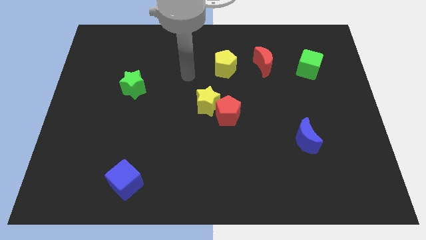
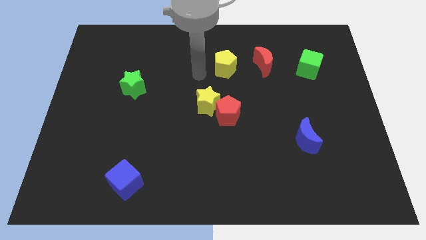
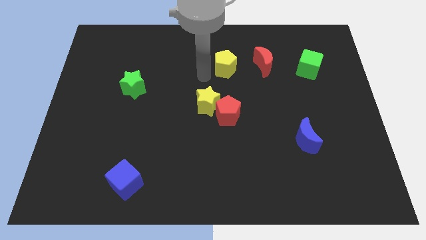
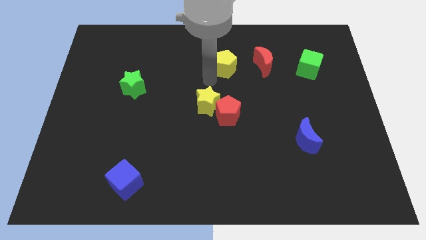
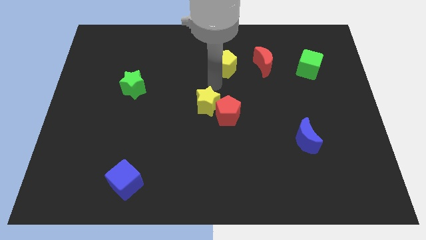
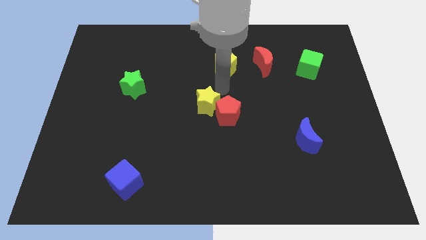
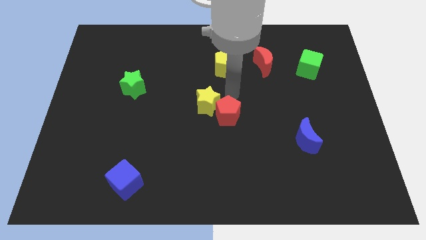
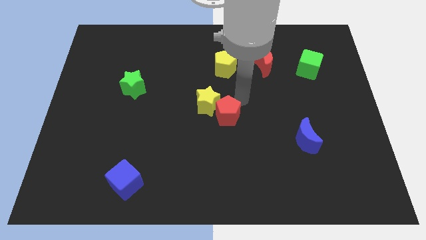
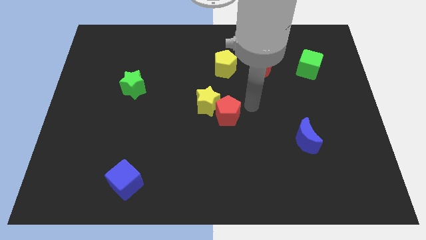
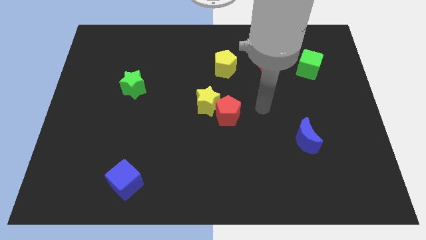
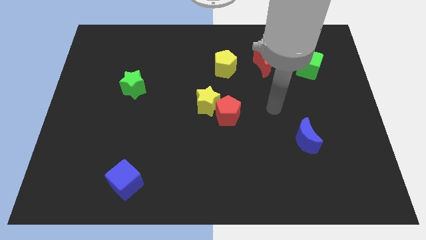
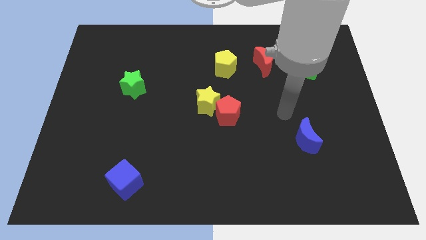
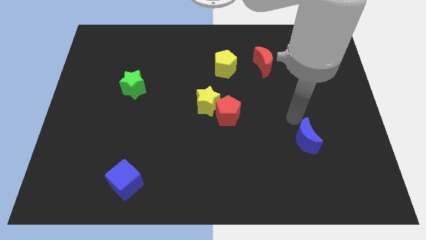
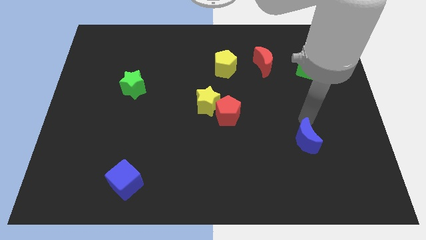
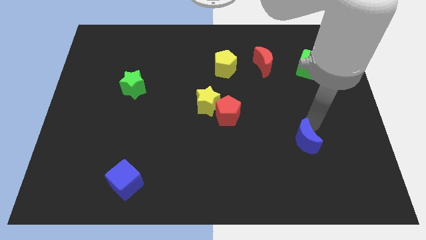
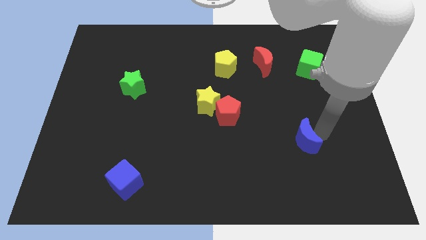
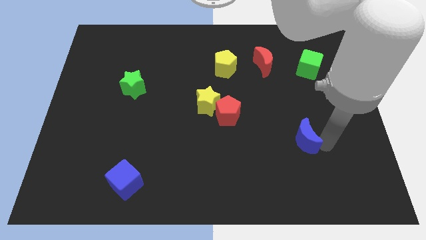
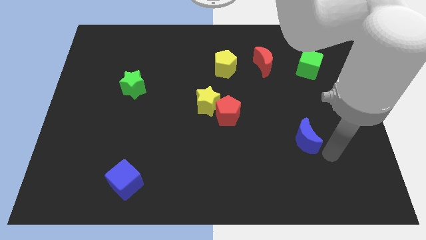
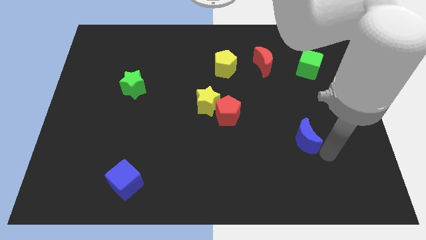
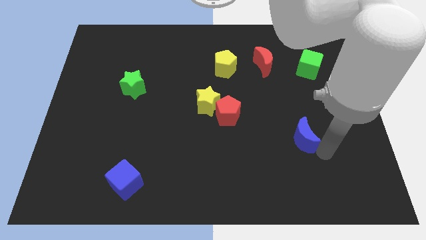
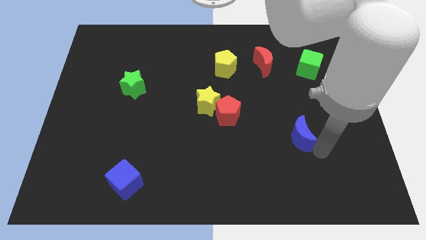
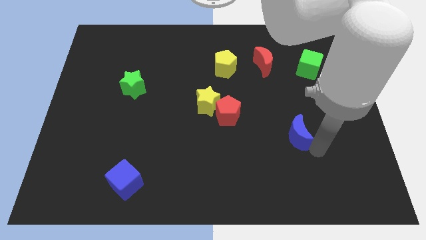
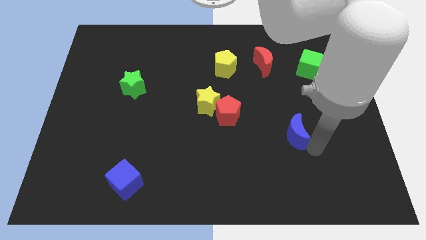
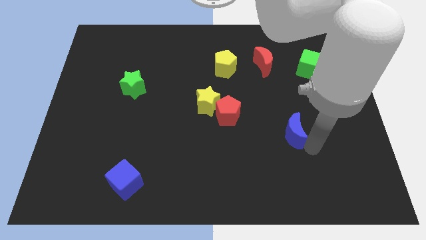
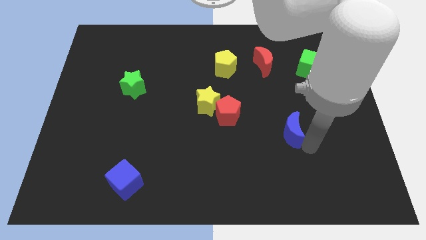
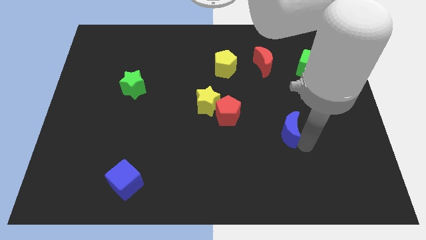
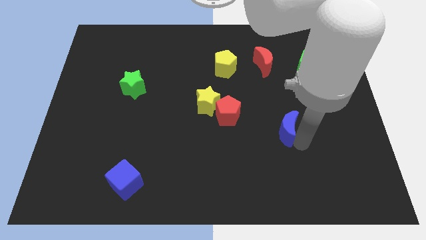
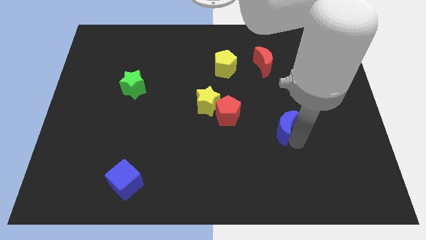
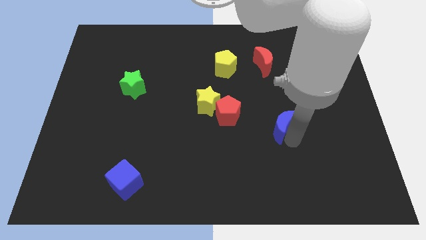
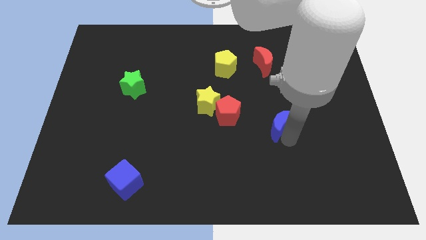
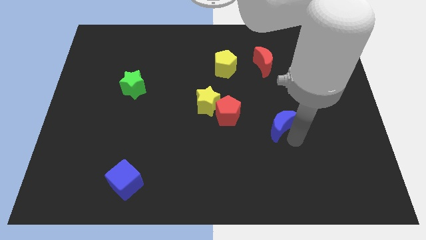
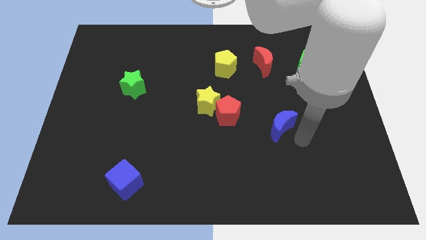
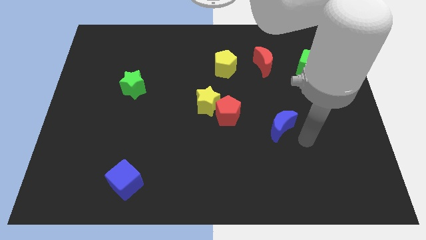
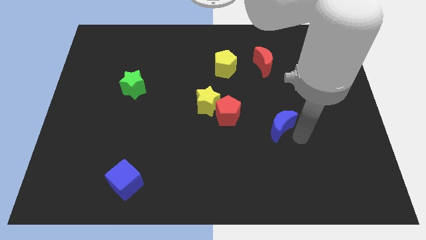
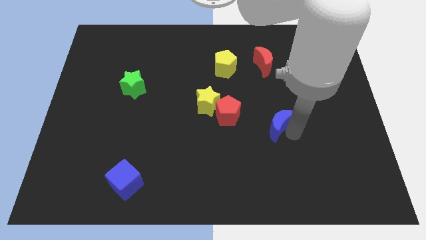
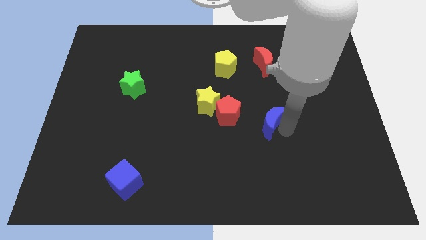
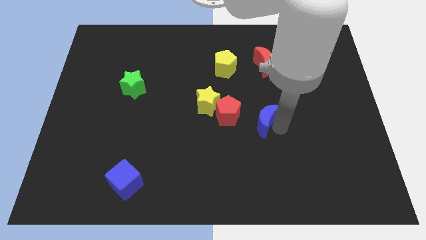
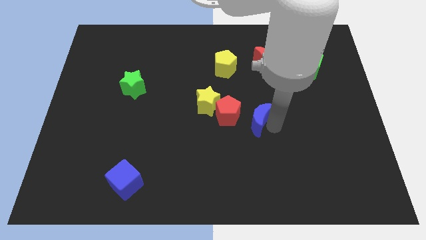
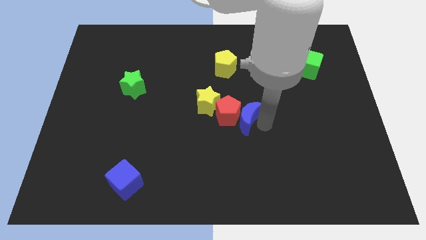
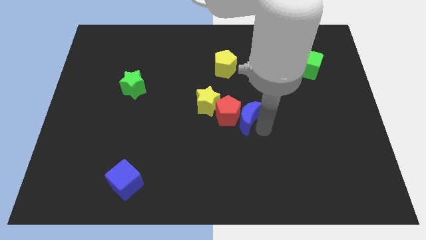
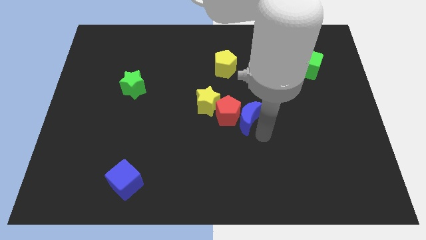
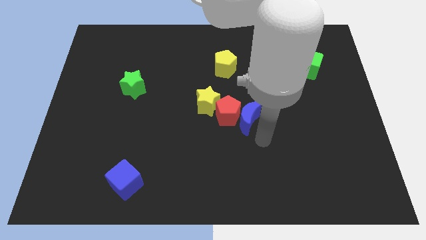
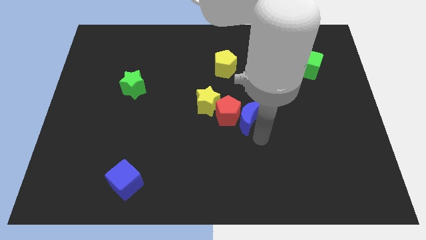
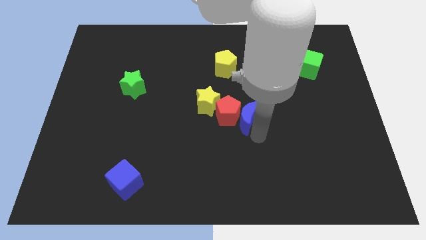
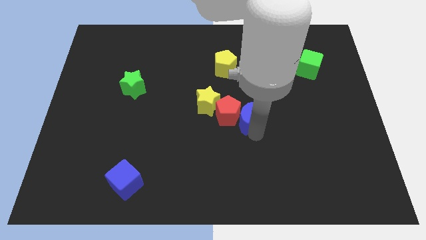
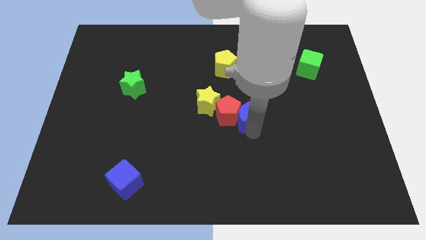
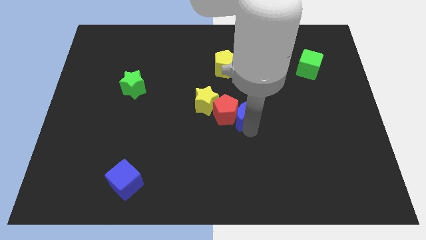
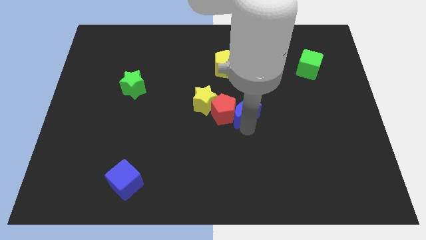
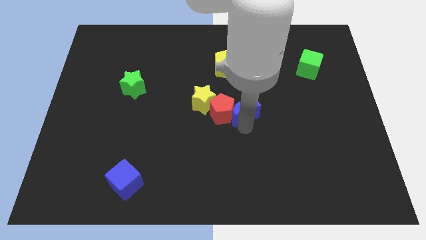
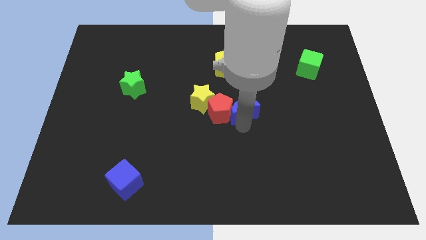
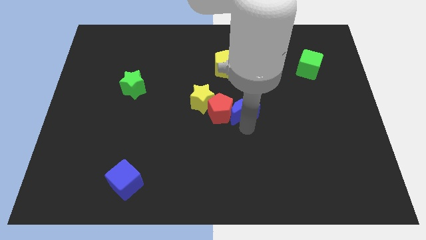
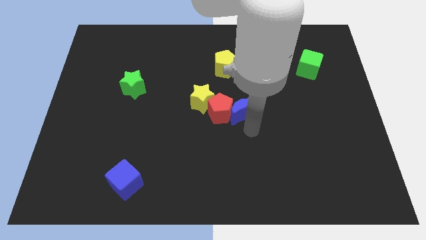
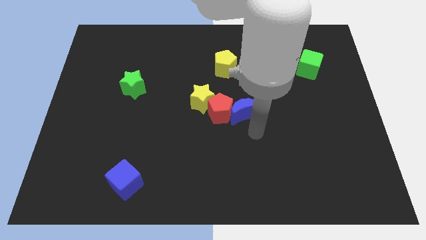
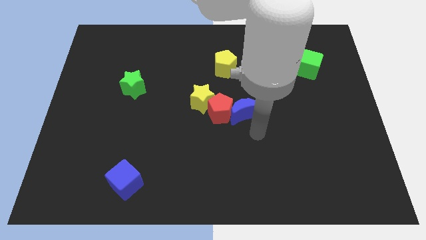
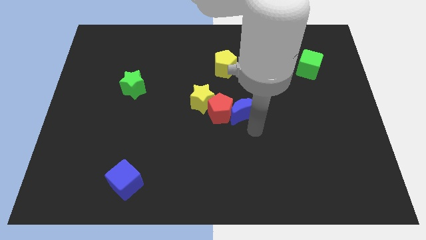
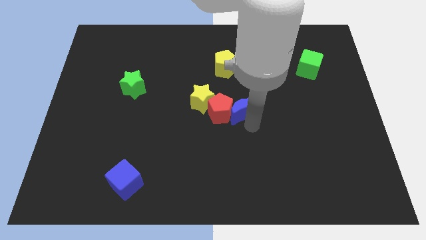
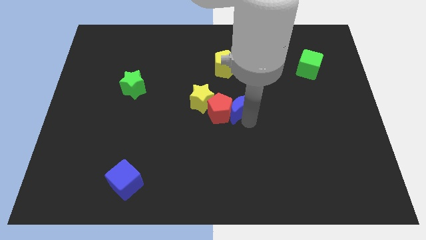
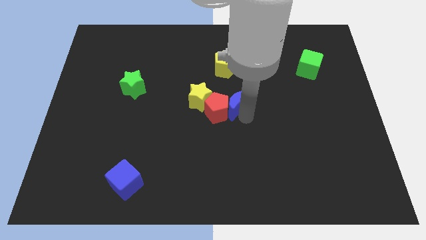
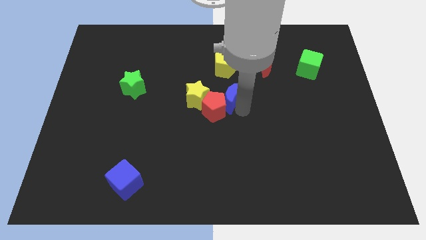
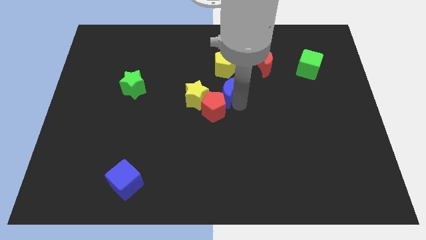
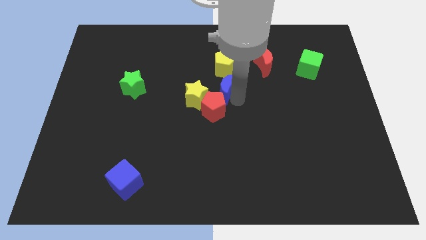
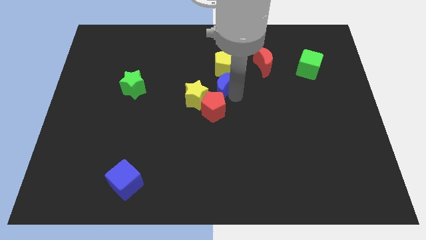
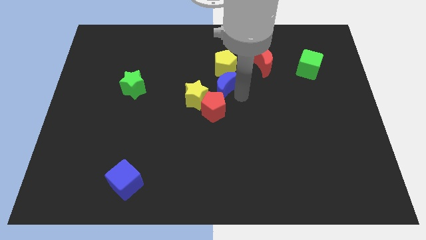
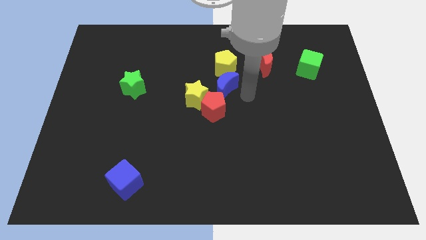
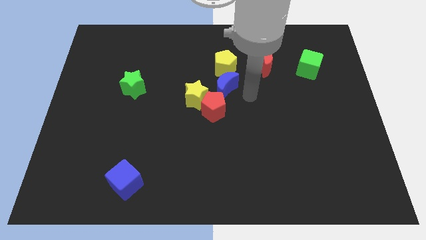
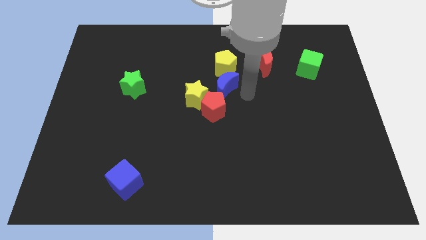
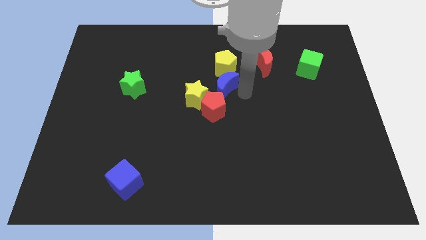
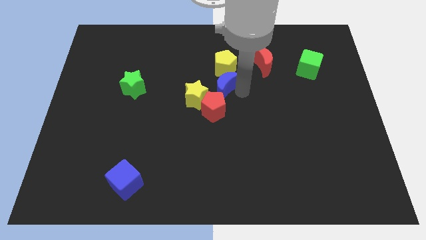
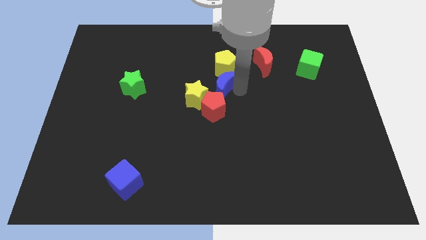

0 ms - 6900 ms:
move the blue moon to the bottom left of the yellow pentagon

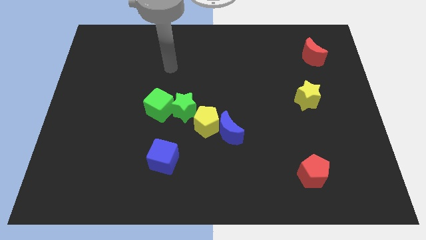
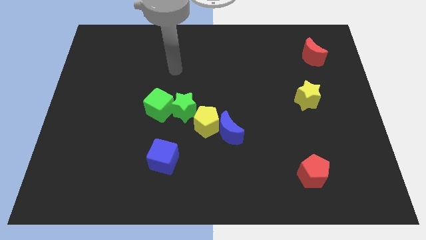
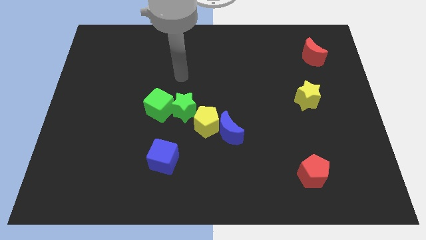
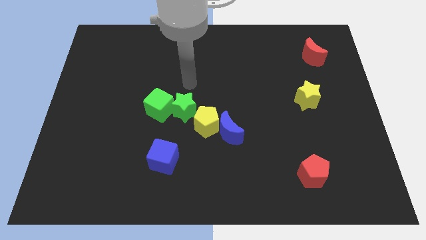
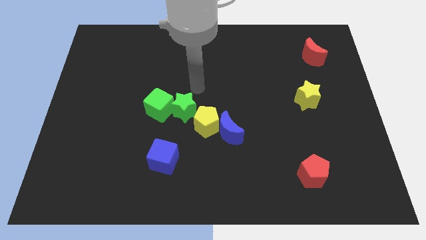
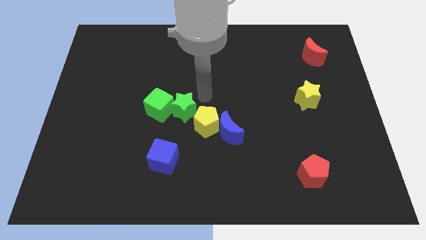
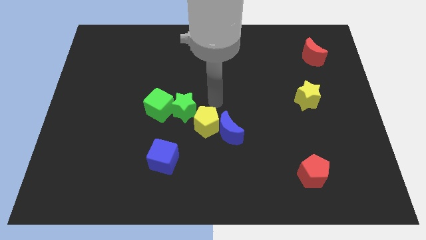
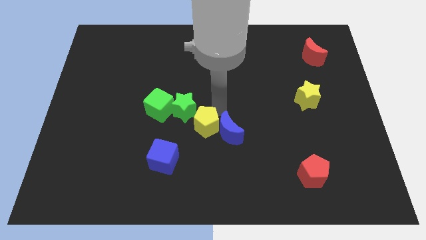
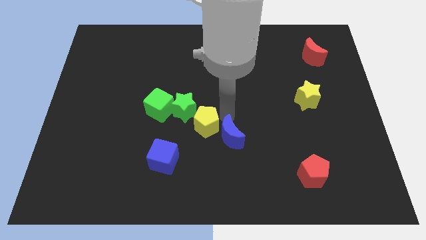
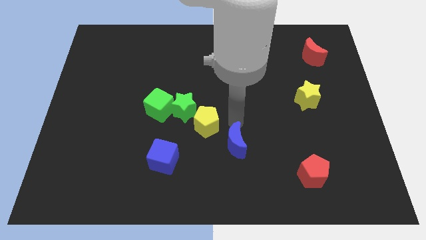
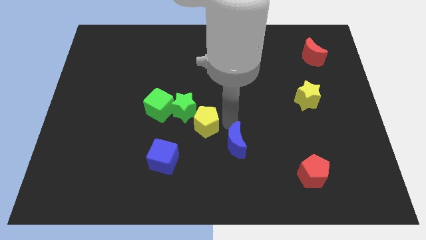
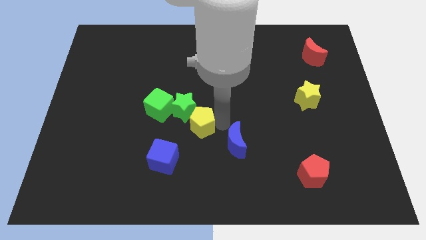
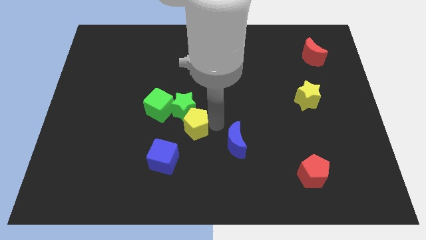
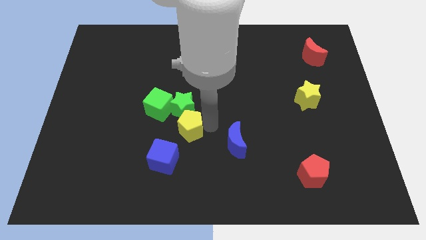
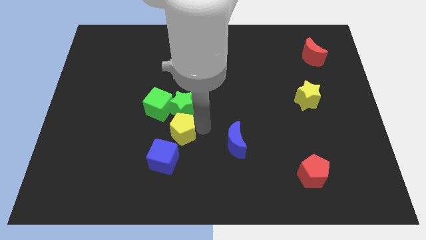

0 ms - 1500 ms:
push the yellow pentagon to the bottom left of the green star
